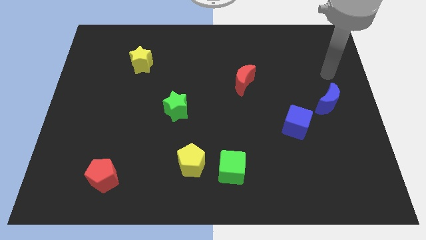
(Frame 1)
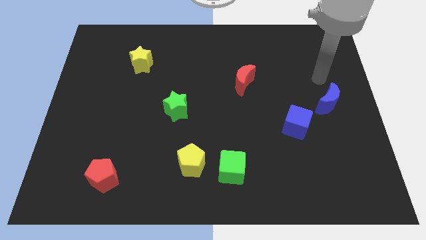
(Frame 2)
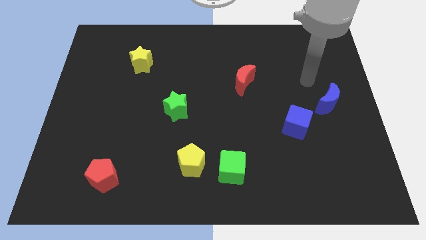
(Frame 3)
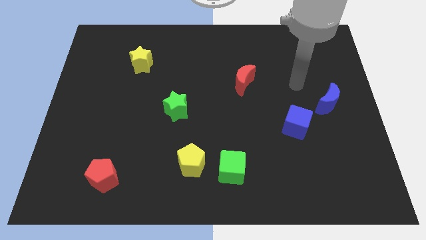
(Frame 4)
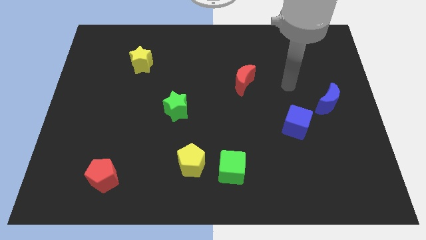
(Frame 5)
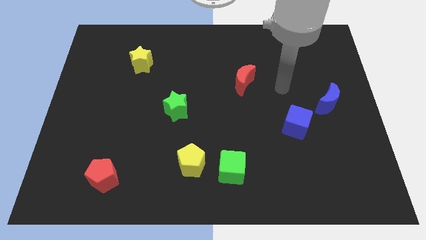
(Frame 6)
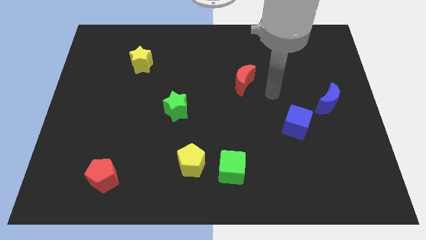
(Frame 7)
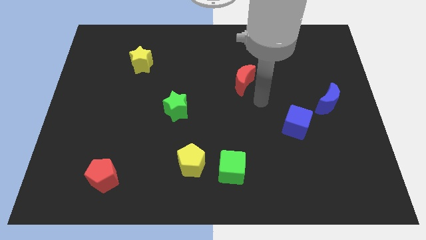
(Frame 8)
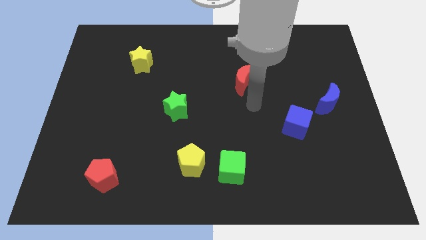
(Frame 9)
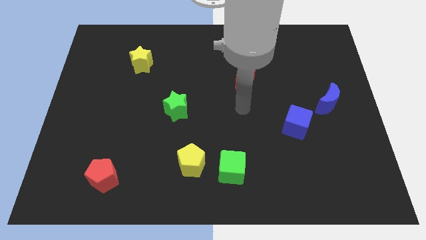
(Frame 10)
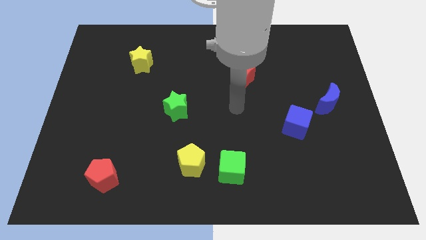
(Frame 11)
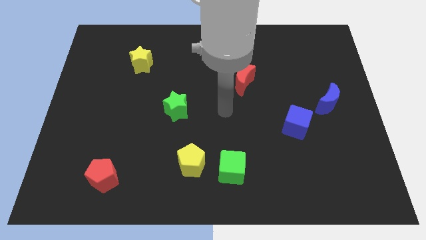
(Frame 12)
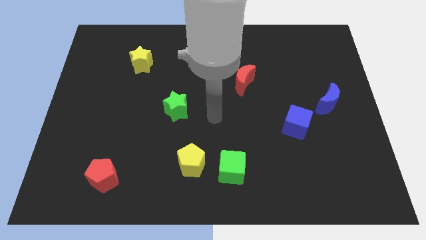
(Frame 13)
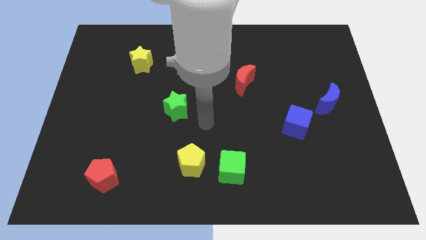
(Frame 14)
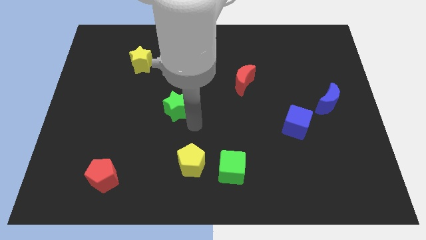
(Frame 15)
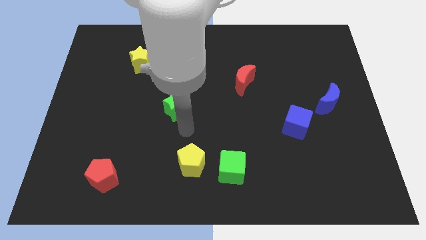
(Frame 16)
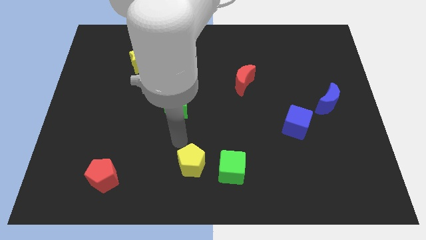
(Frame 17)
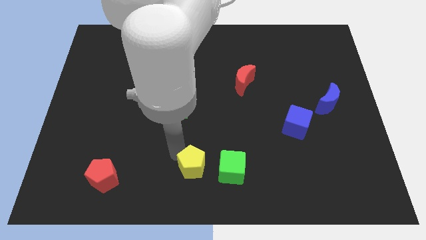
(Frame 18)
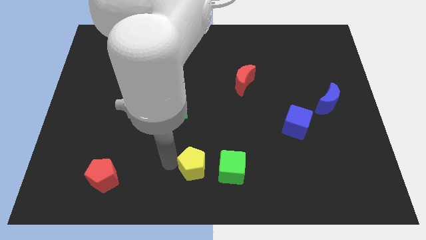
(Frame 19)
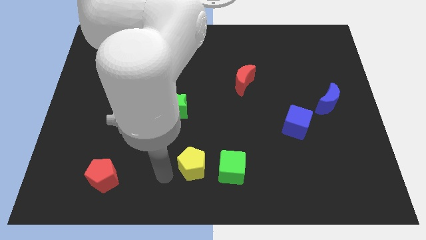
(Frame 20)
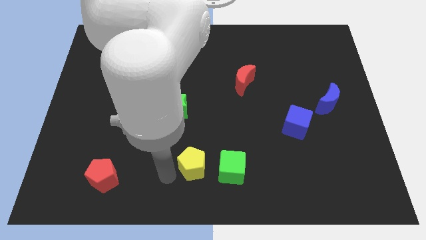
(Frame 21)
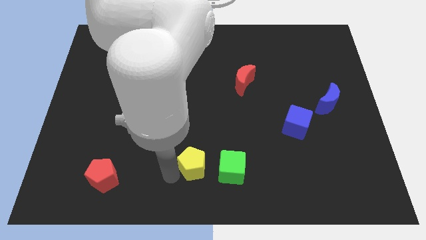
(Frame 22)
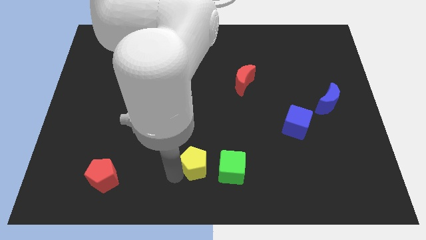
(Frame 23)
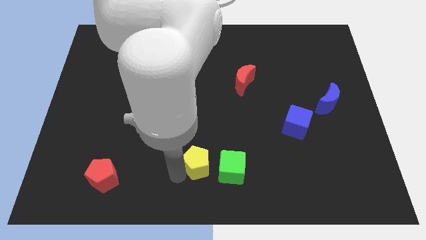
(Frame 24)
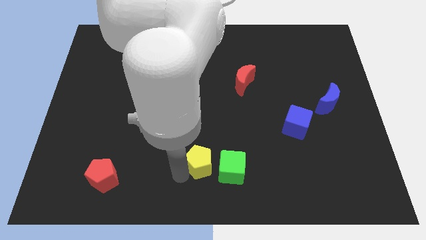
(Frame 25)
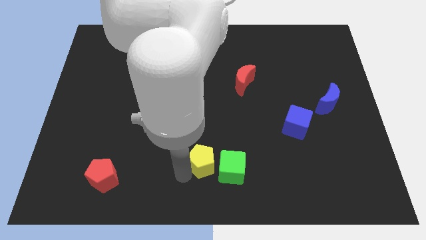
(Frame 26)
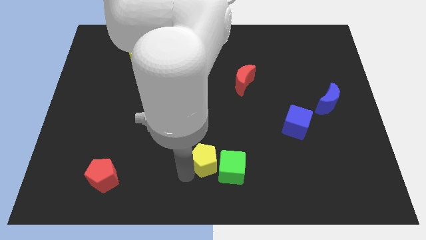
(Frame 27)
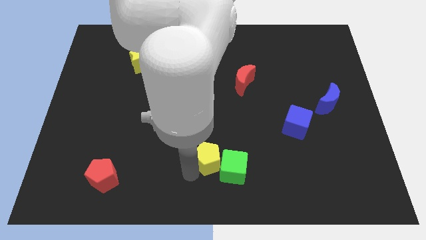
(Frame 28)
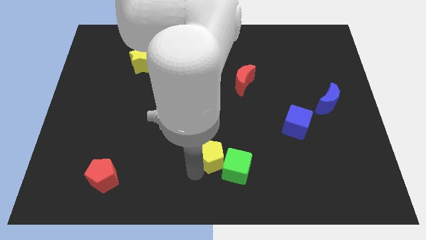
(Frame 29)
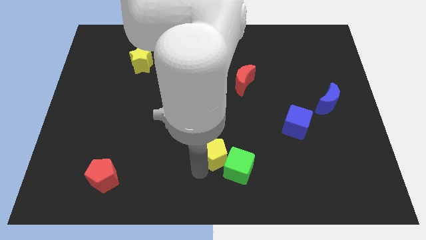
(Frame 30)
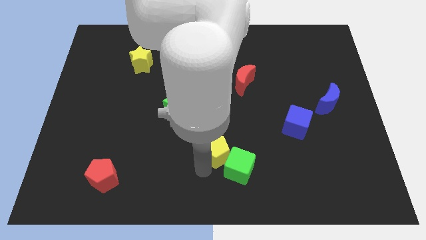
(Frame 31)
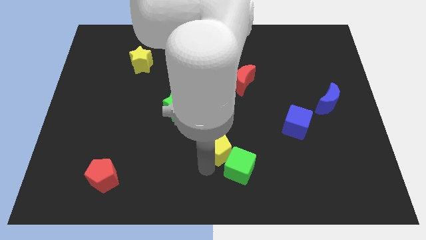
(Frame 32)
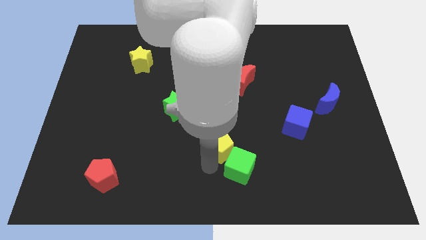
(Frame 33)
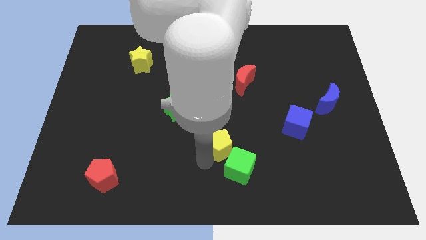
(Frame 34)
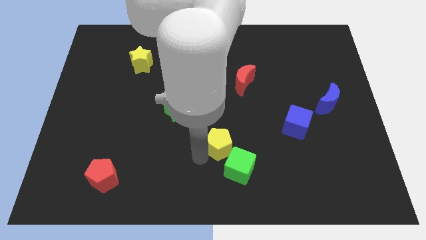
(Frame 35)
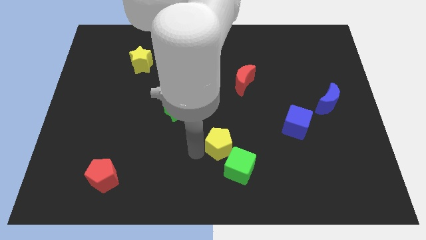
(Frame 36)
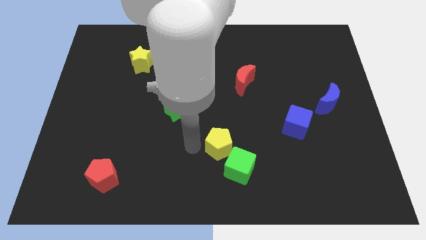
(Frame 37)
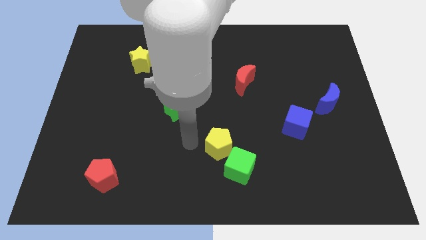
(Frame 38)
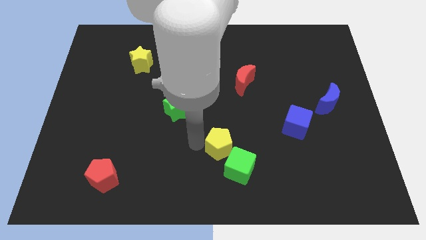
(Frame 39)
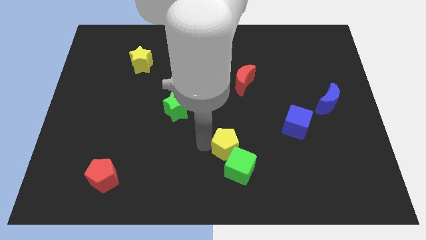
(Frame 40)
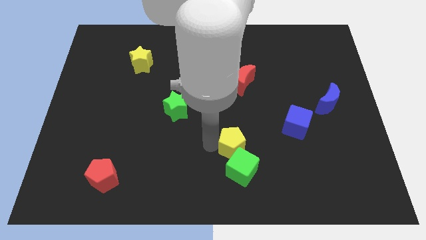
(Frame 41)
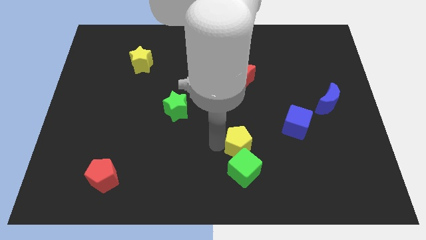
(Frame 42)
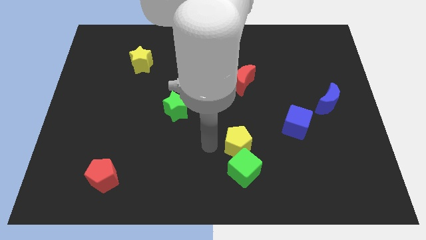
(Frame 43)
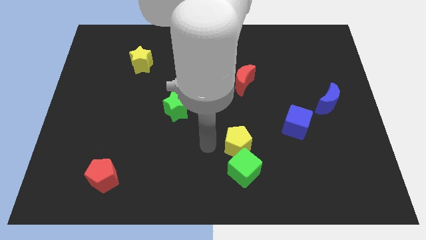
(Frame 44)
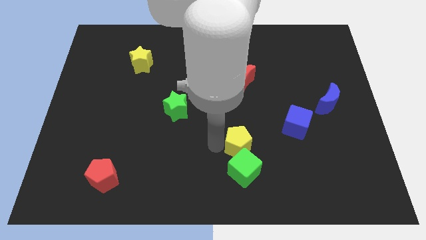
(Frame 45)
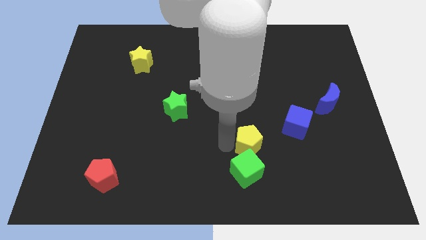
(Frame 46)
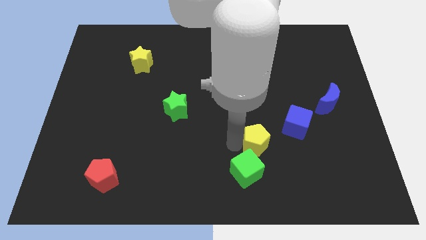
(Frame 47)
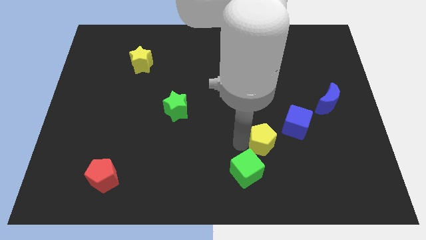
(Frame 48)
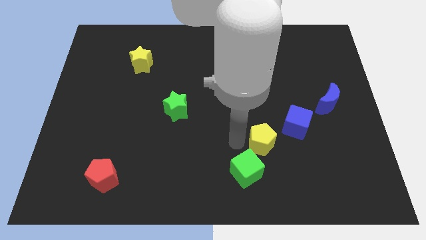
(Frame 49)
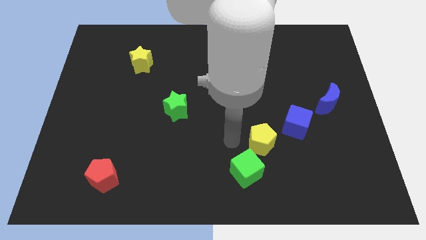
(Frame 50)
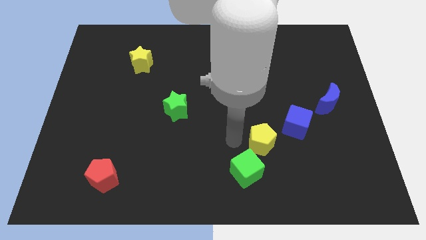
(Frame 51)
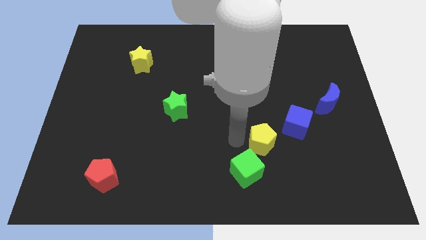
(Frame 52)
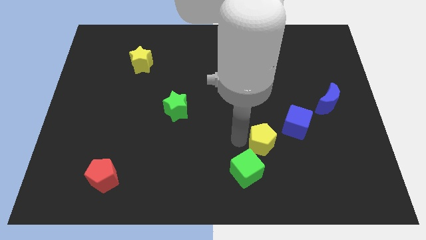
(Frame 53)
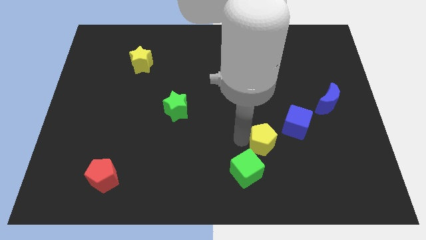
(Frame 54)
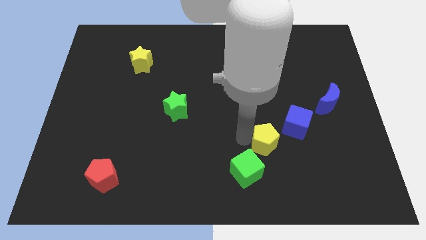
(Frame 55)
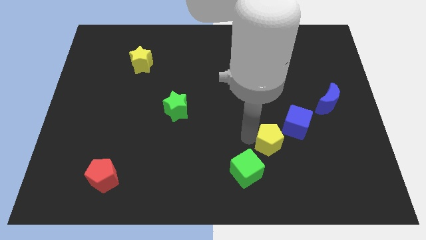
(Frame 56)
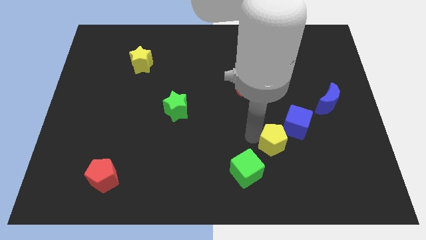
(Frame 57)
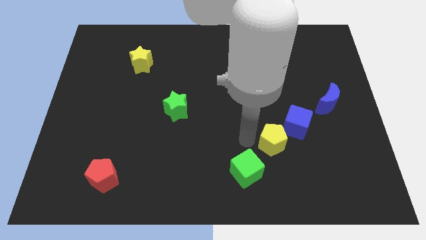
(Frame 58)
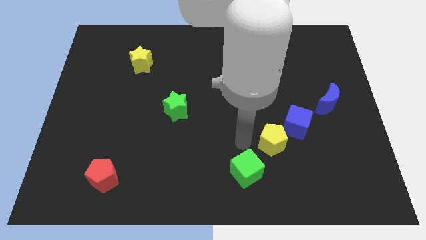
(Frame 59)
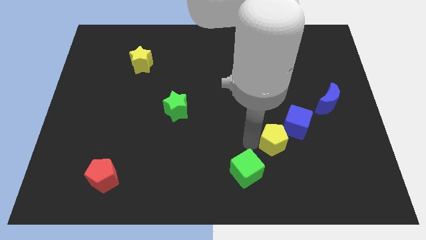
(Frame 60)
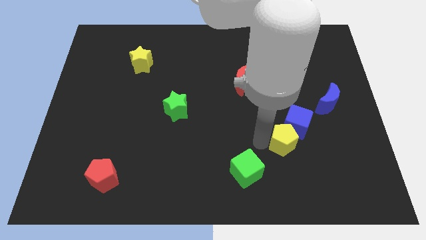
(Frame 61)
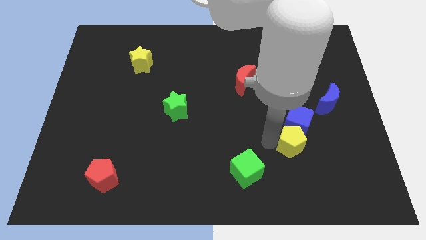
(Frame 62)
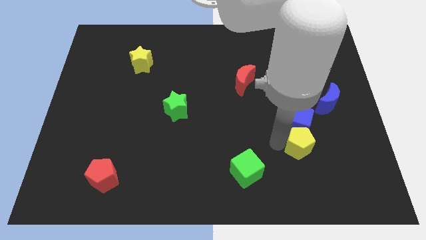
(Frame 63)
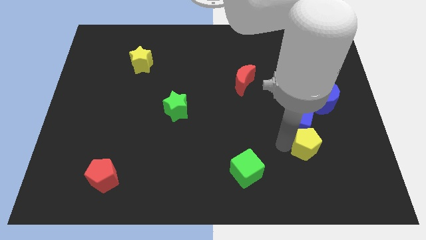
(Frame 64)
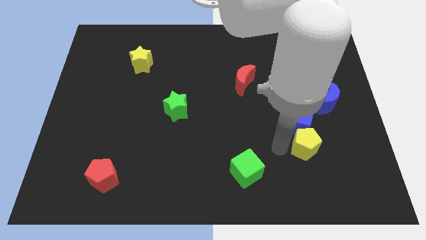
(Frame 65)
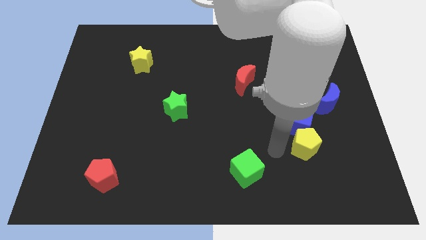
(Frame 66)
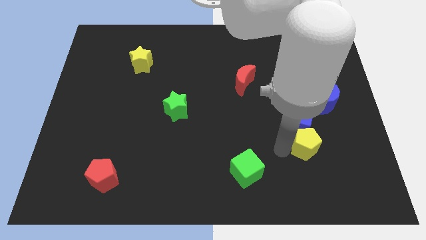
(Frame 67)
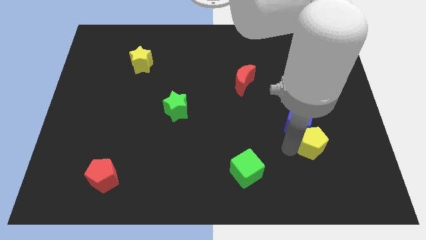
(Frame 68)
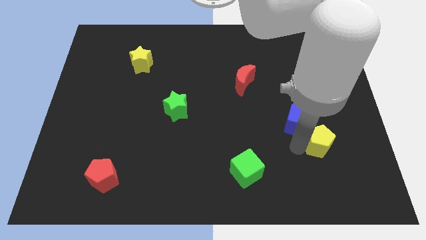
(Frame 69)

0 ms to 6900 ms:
slide the yellow pentagon to the bottom of the blue moon
